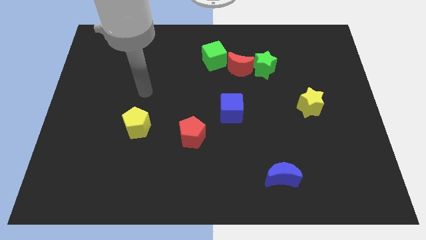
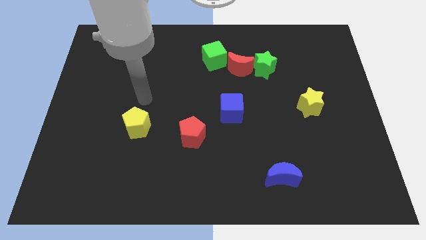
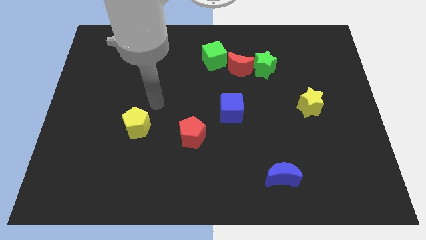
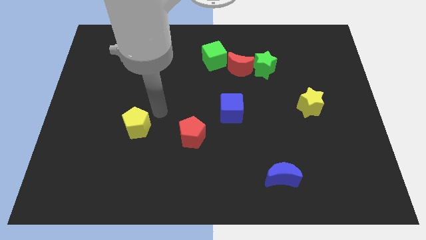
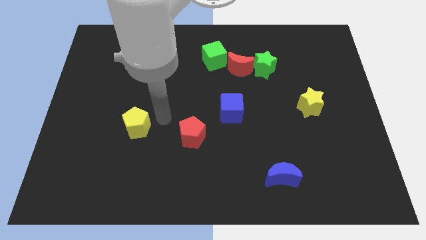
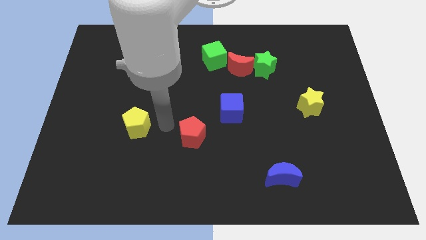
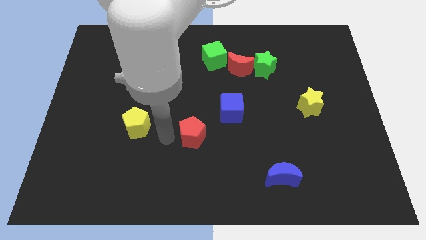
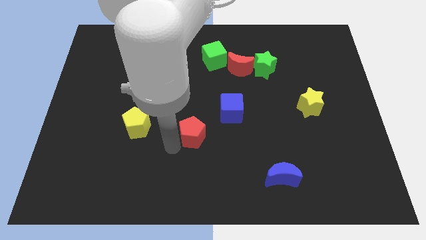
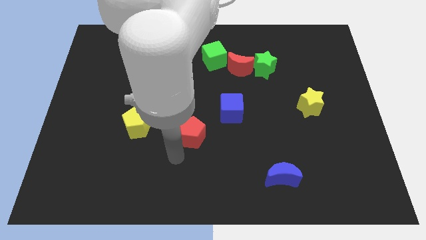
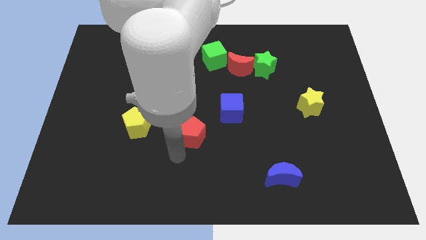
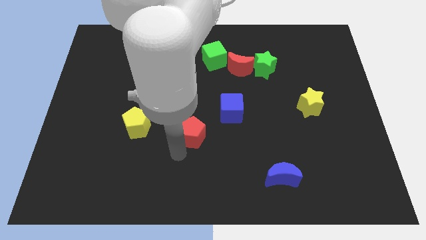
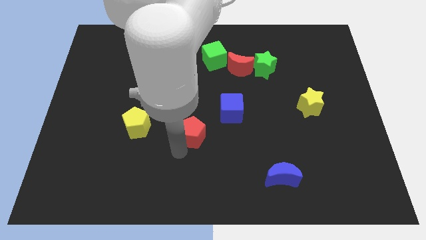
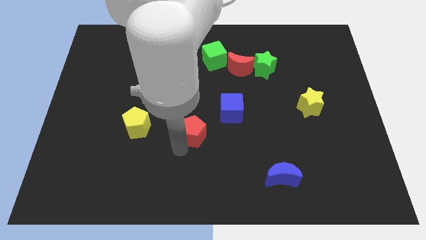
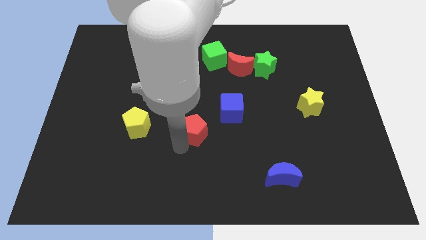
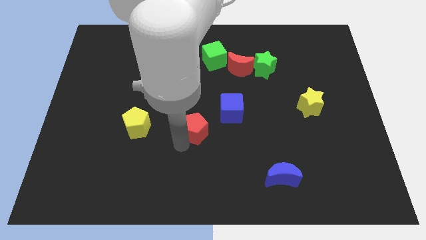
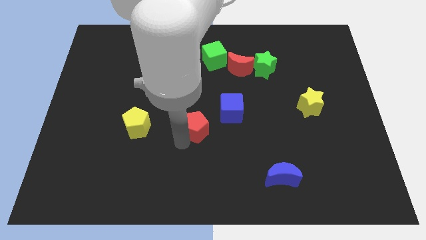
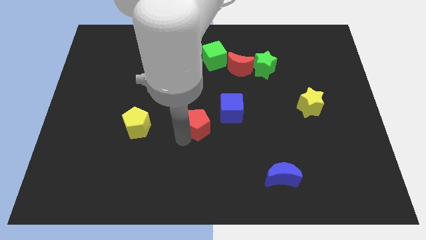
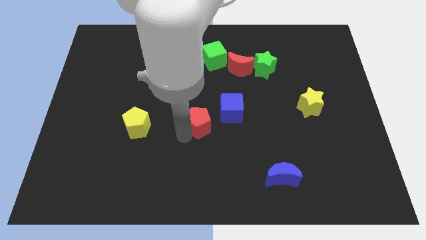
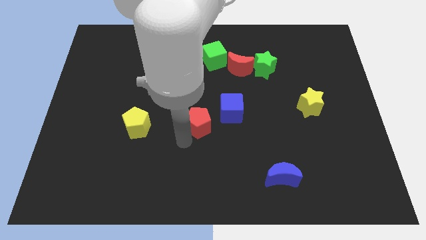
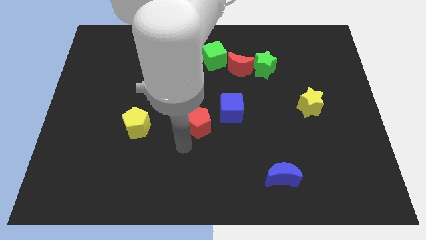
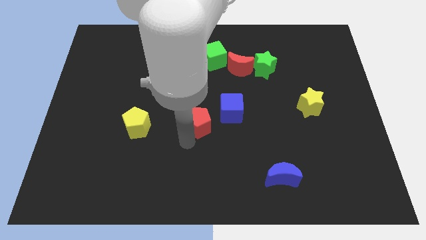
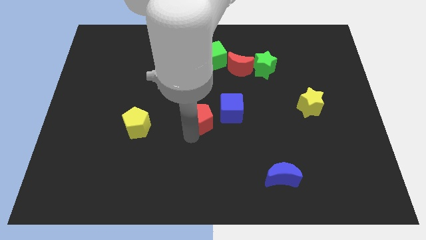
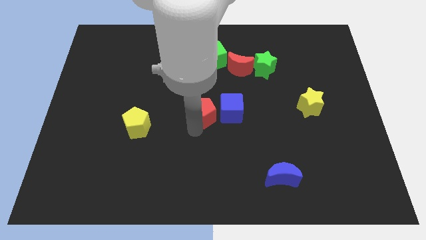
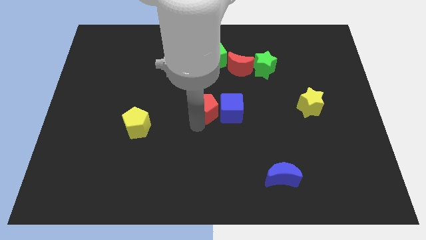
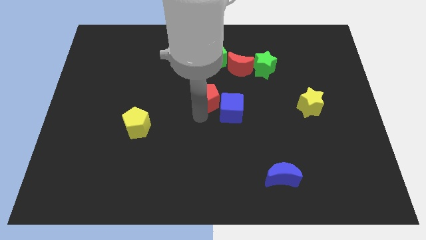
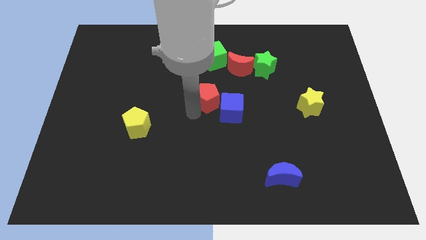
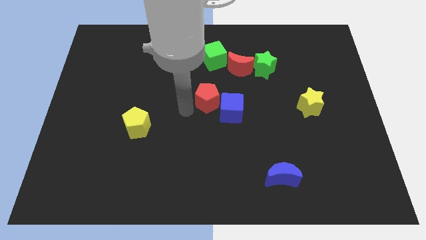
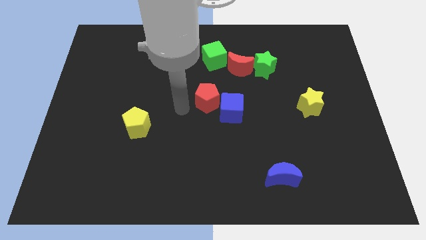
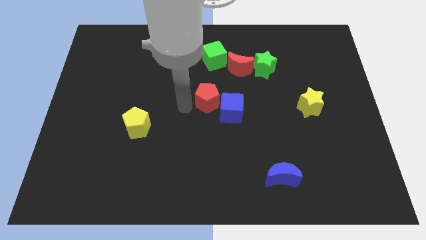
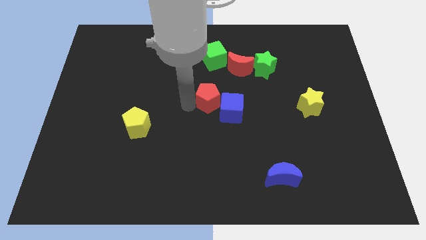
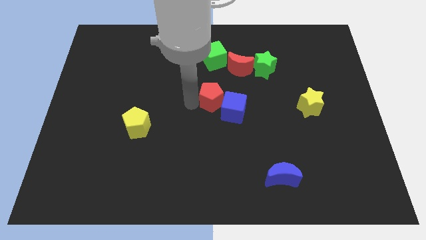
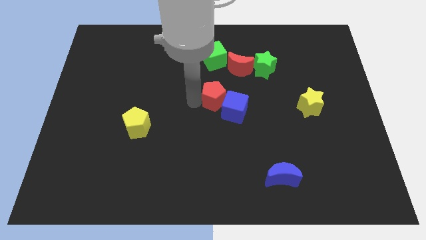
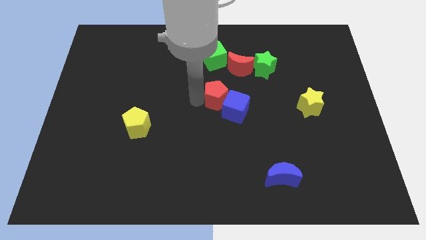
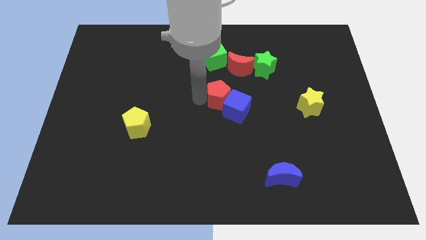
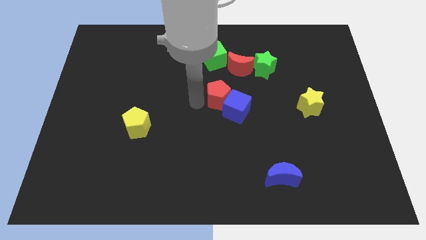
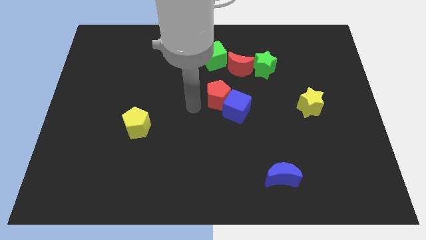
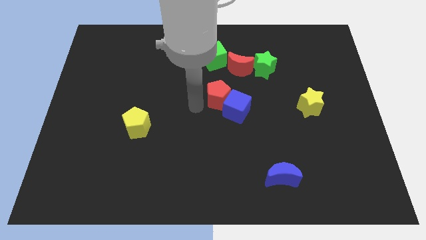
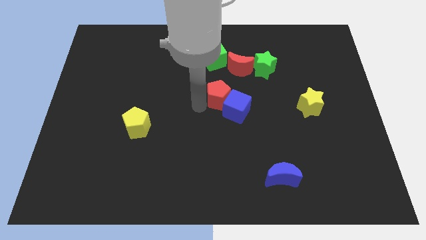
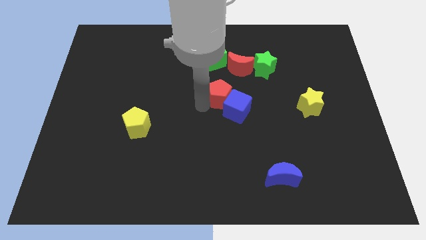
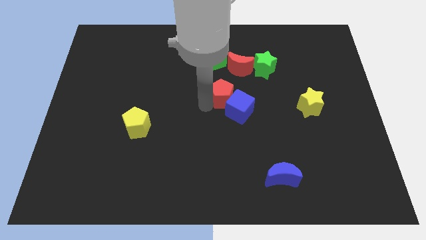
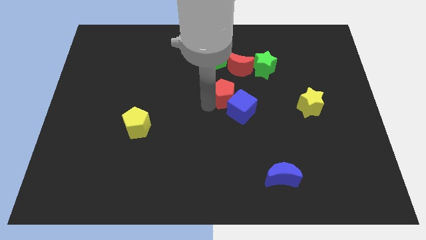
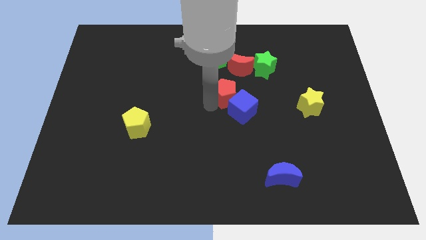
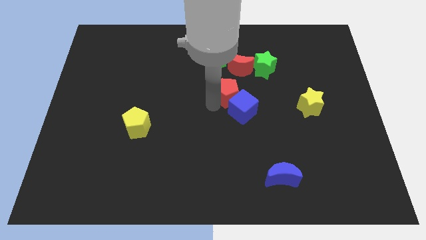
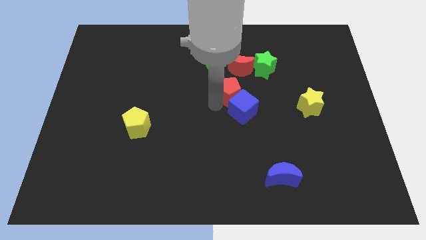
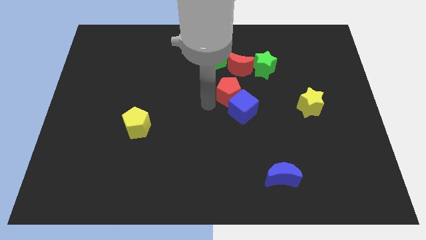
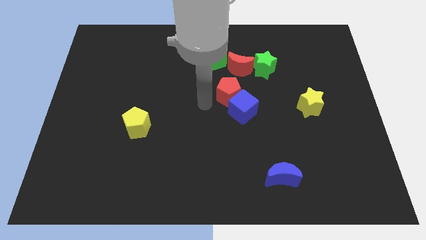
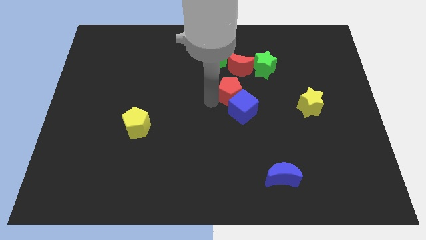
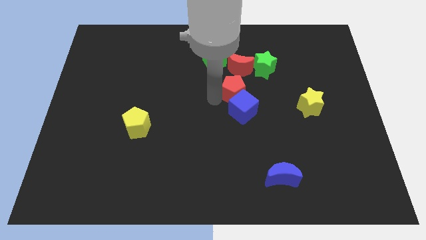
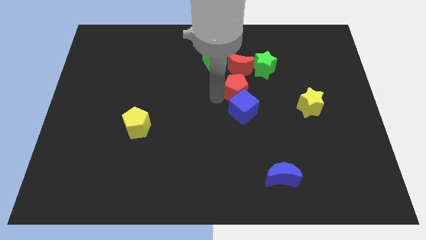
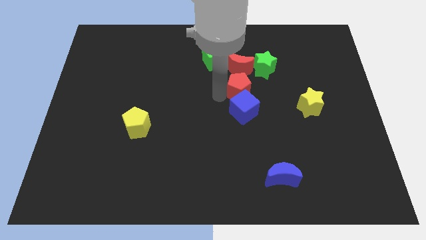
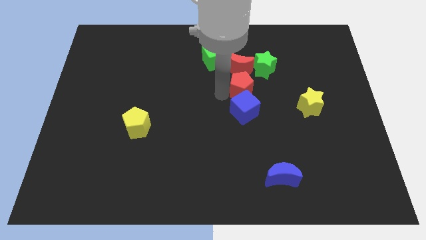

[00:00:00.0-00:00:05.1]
move the red pentagon to the bottom right of the red moon

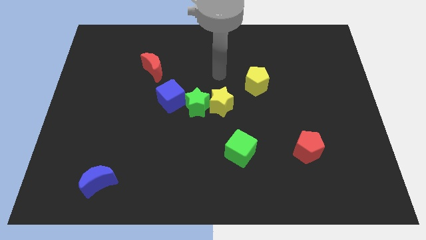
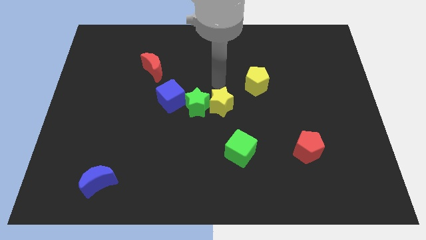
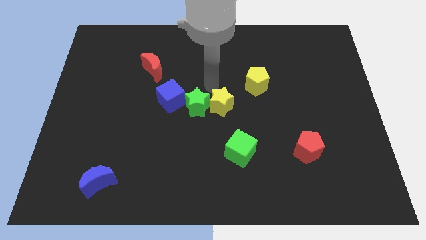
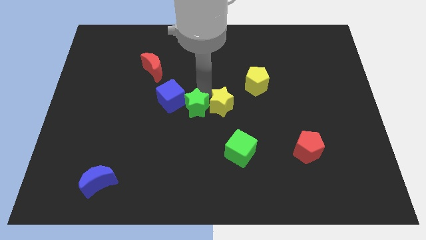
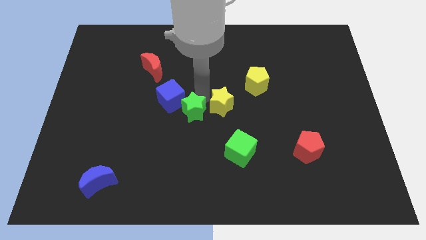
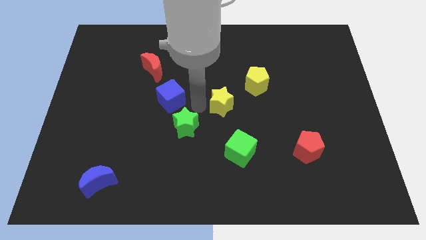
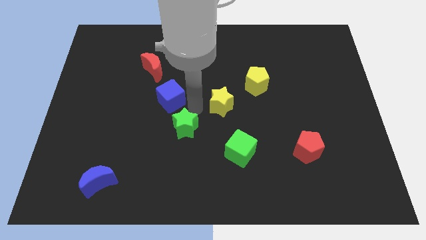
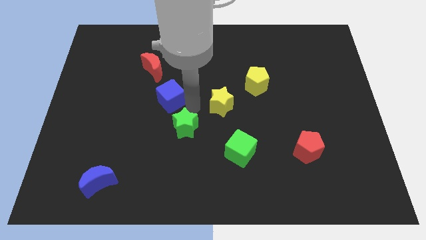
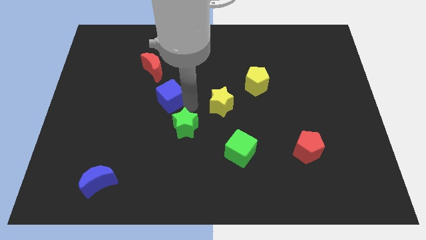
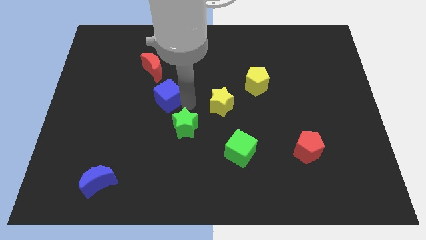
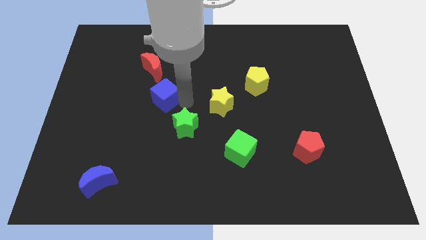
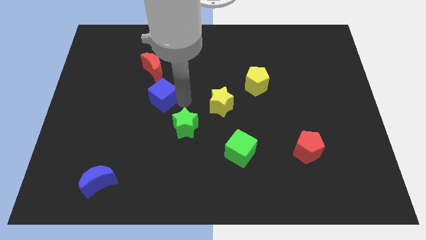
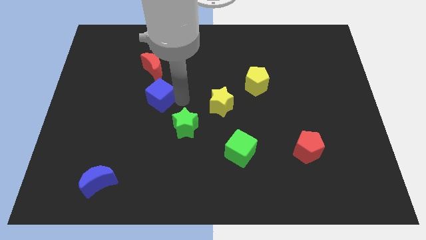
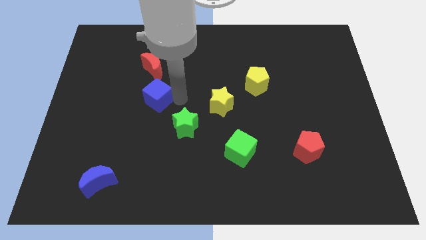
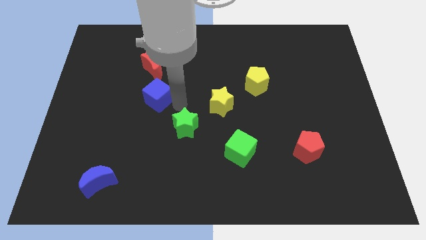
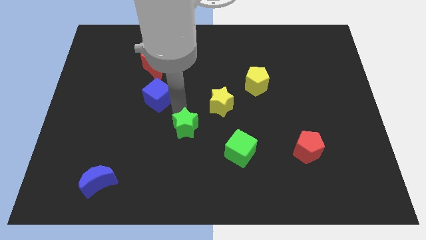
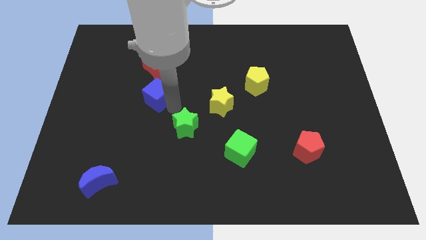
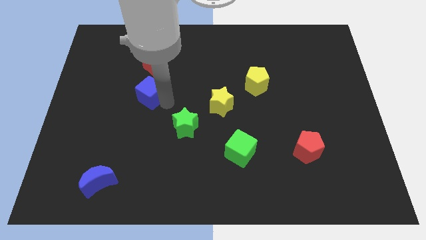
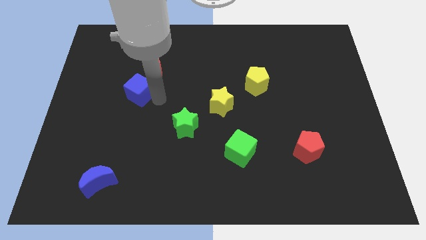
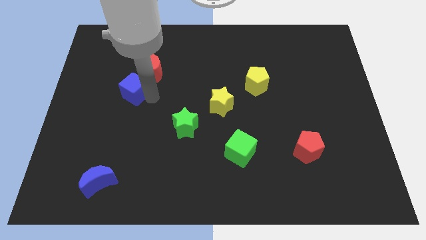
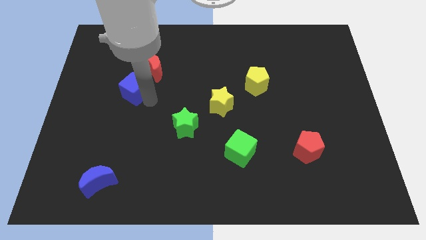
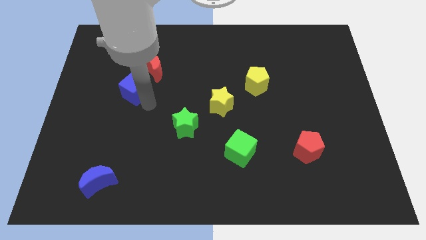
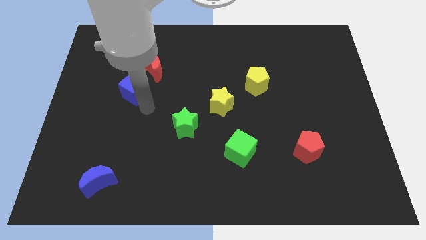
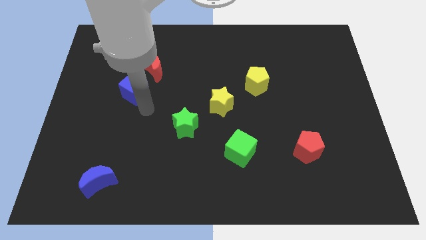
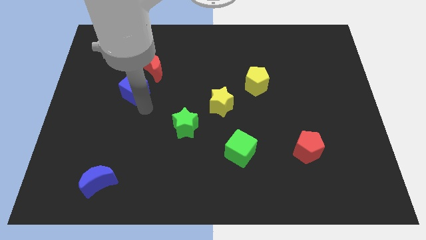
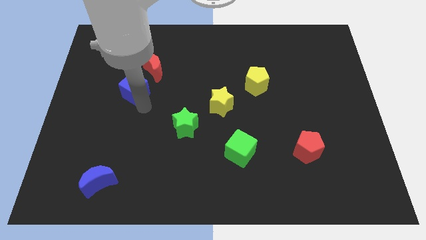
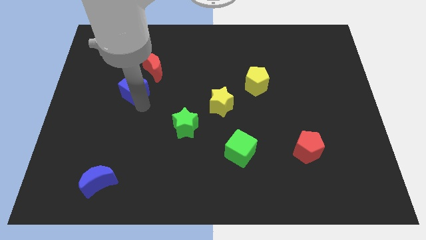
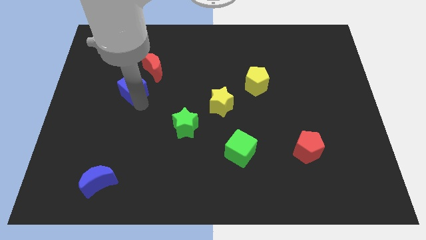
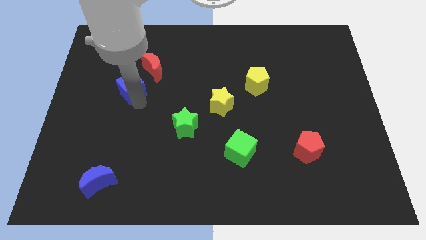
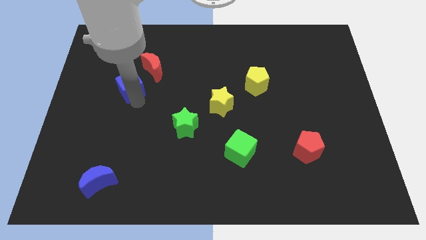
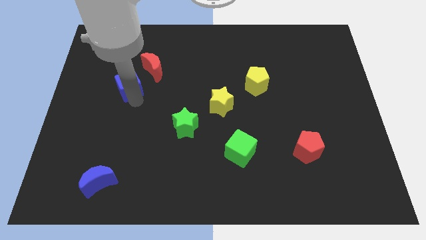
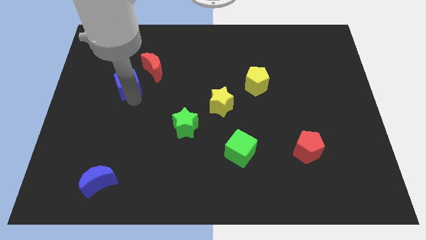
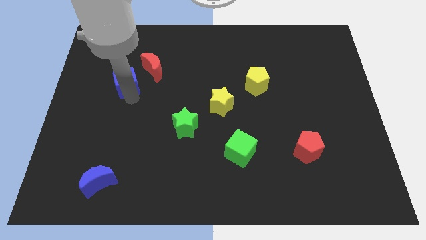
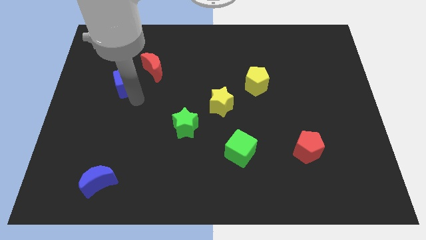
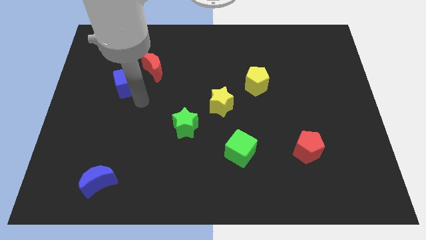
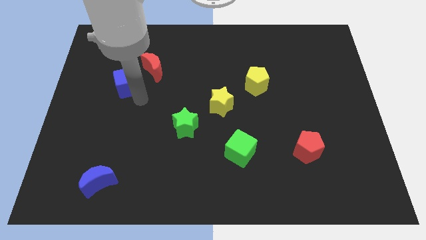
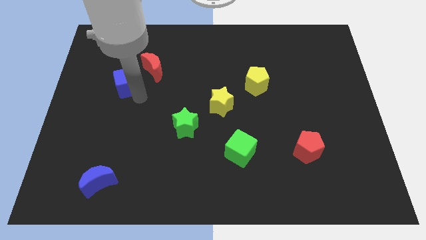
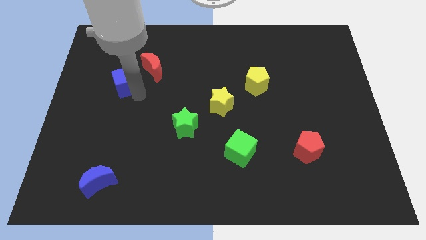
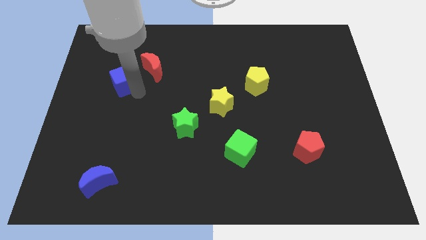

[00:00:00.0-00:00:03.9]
slide the blue cube to the left of the red moon
